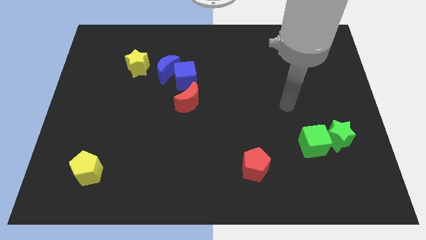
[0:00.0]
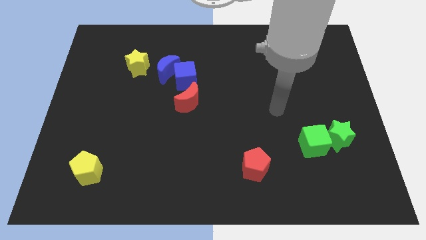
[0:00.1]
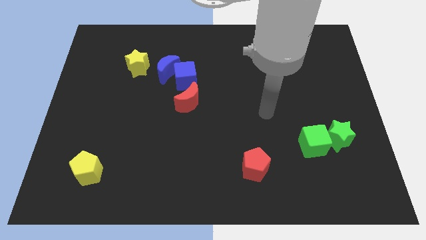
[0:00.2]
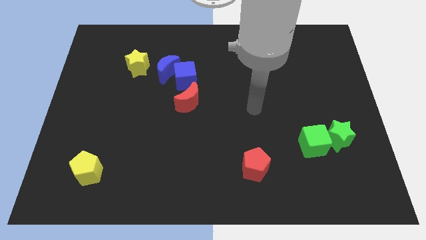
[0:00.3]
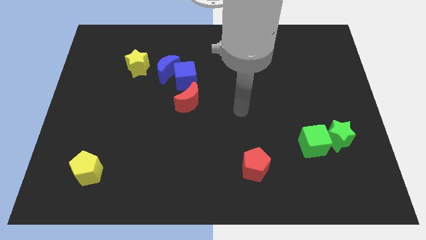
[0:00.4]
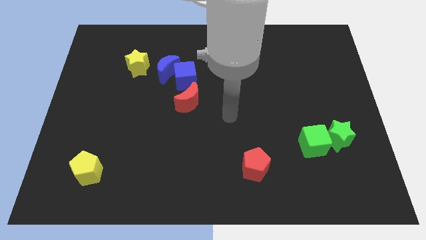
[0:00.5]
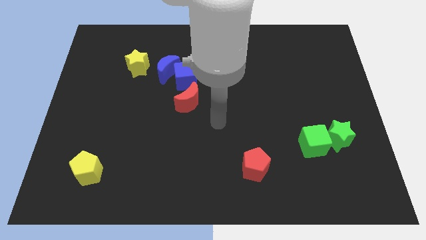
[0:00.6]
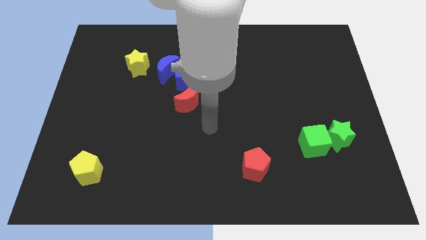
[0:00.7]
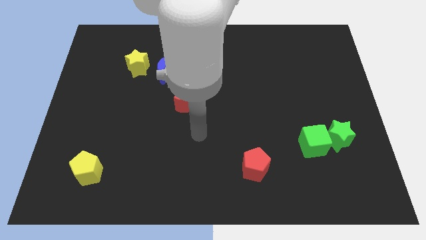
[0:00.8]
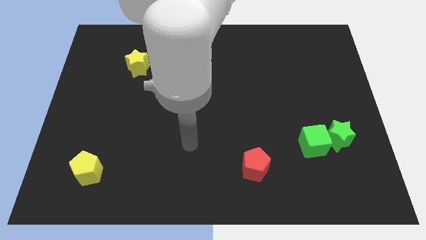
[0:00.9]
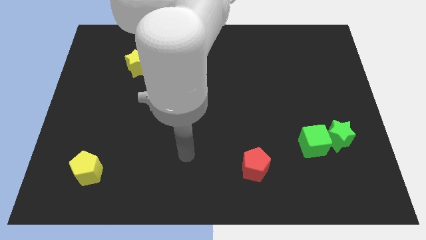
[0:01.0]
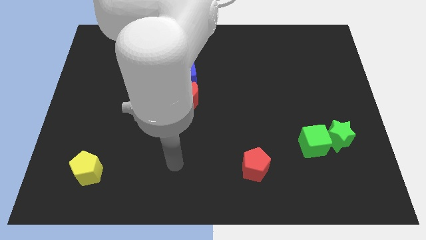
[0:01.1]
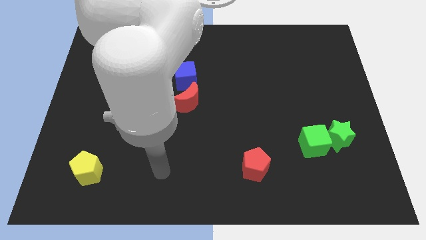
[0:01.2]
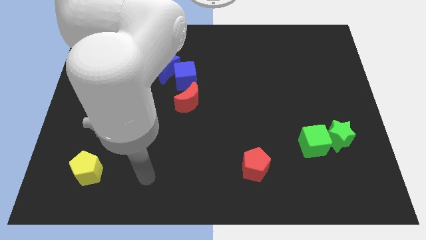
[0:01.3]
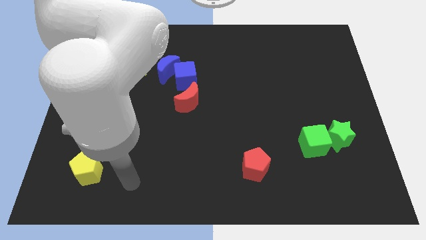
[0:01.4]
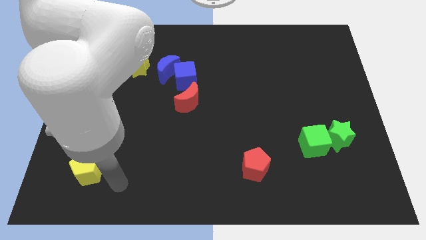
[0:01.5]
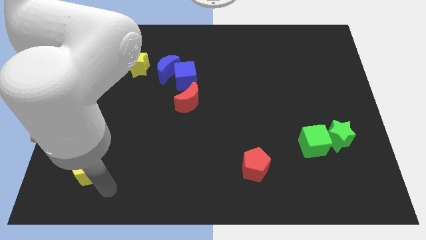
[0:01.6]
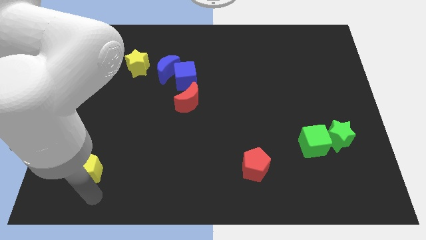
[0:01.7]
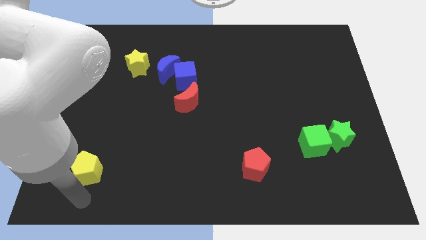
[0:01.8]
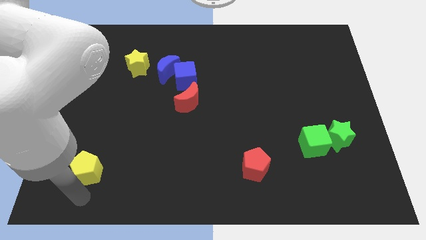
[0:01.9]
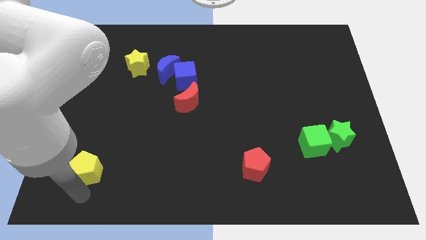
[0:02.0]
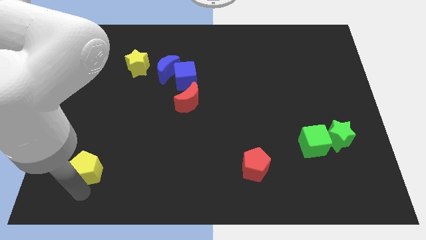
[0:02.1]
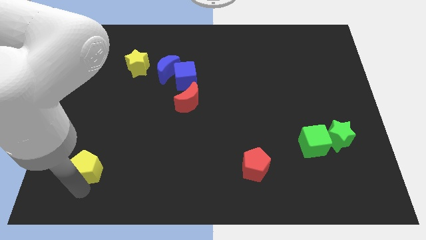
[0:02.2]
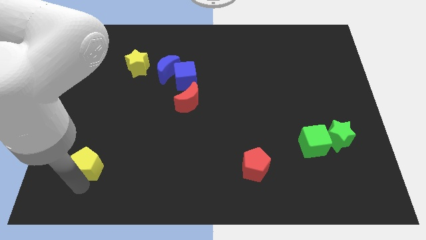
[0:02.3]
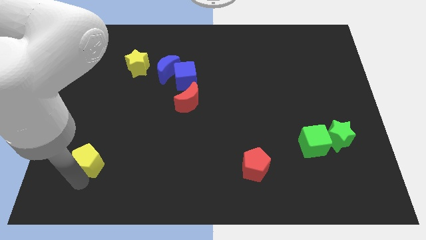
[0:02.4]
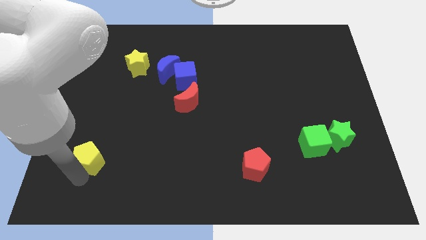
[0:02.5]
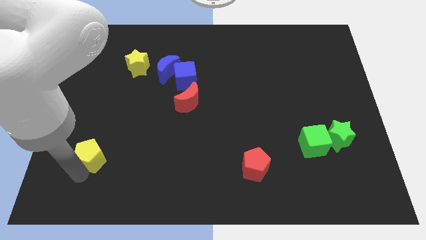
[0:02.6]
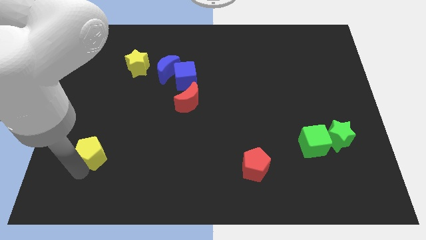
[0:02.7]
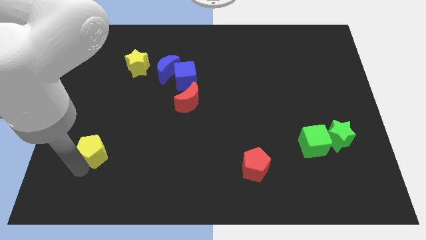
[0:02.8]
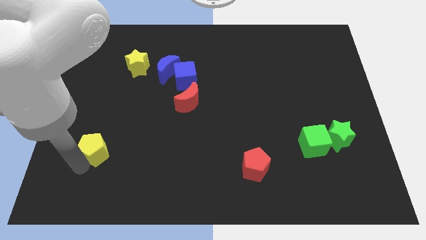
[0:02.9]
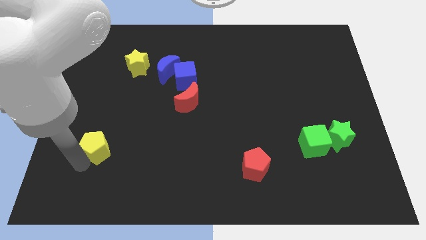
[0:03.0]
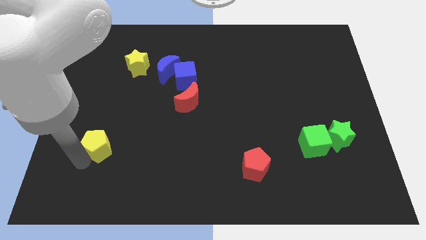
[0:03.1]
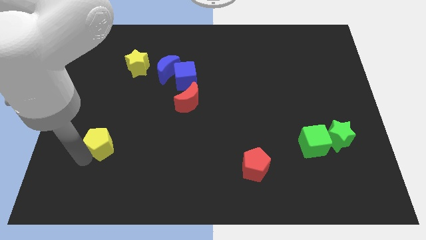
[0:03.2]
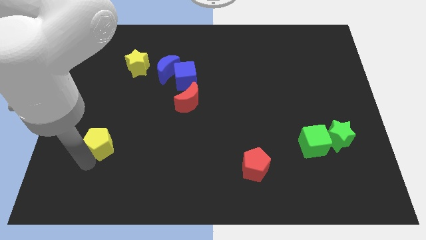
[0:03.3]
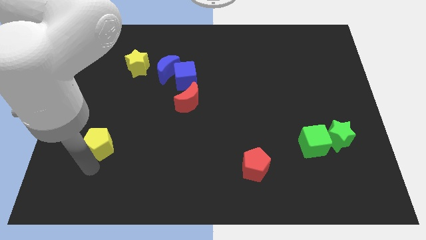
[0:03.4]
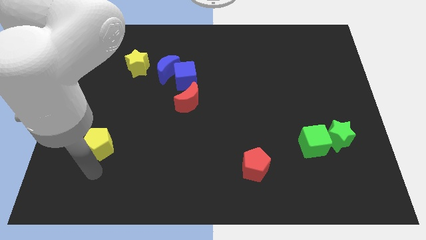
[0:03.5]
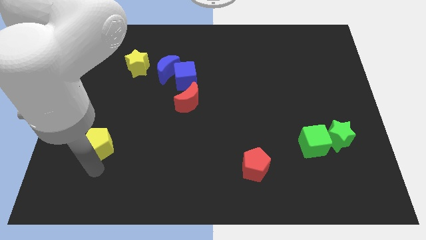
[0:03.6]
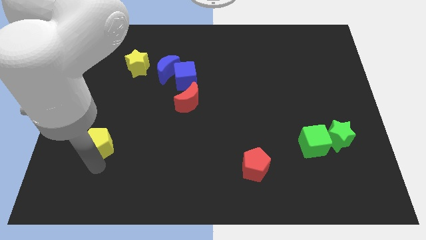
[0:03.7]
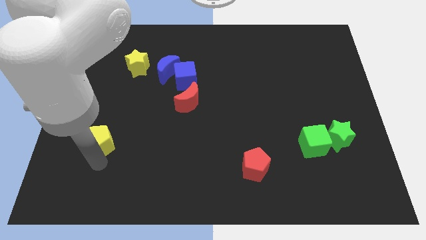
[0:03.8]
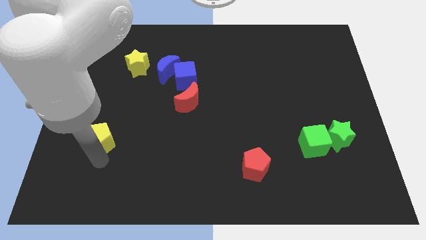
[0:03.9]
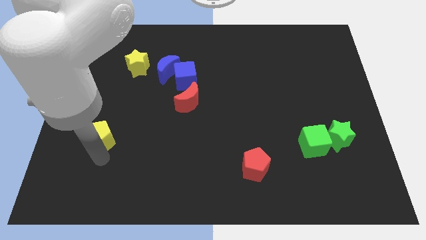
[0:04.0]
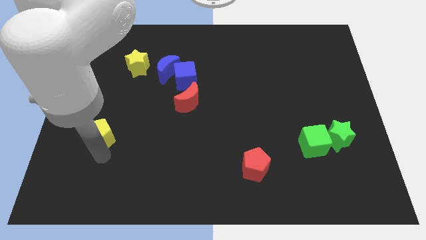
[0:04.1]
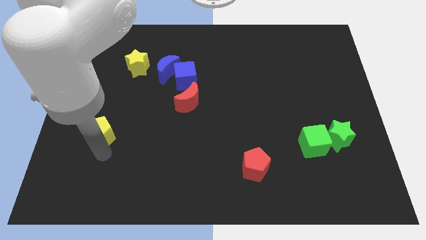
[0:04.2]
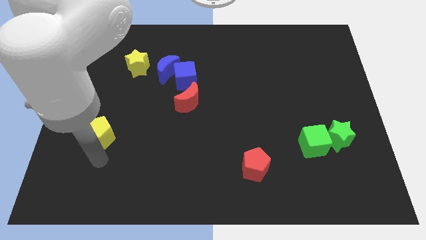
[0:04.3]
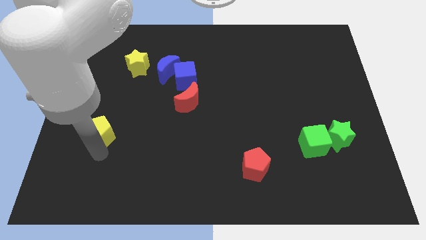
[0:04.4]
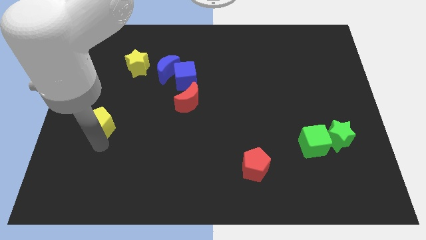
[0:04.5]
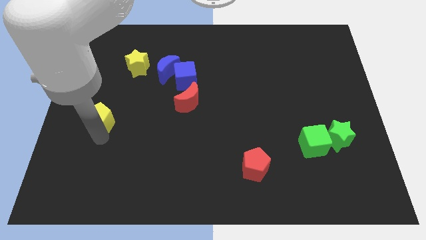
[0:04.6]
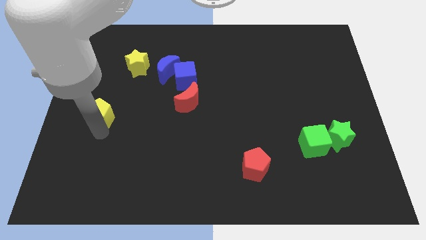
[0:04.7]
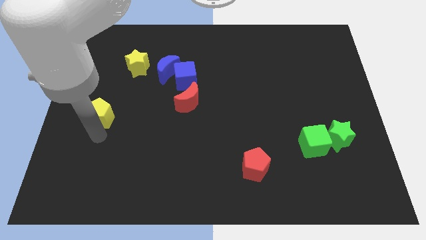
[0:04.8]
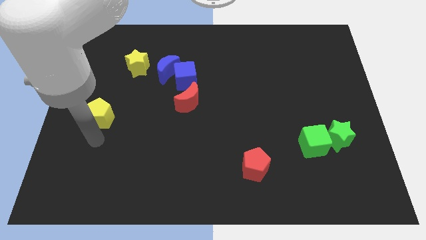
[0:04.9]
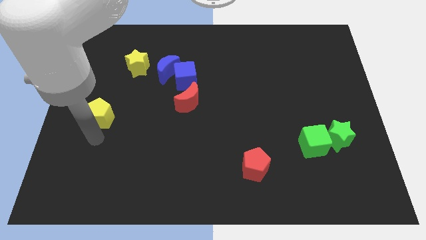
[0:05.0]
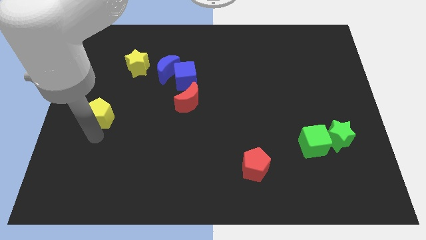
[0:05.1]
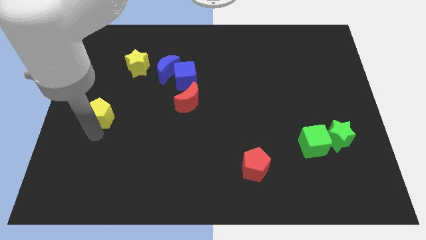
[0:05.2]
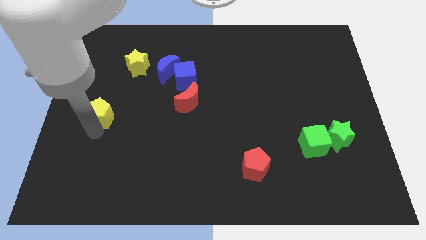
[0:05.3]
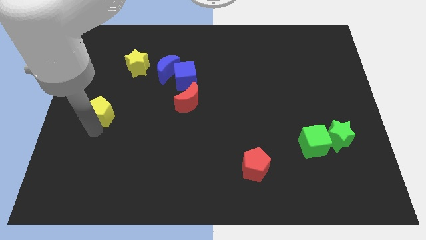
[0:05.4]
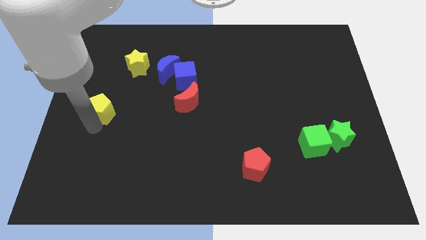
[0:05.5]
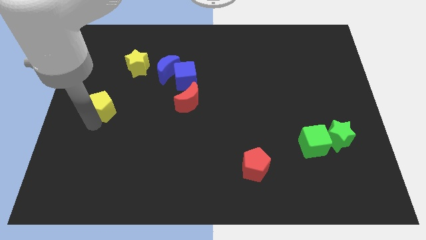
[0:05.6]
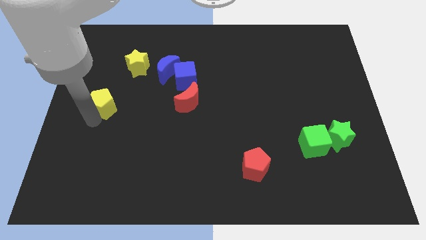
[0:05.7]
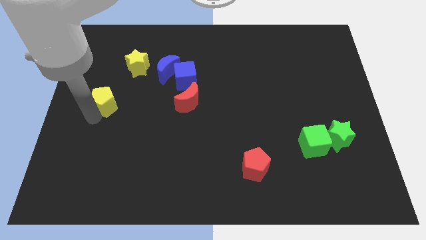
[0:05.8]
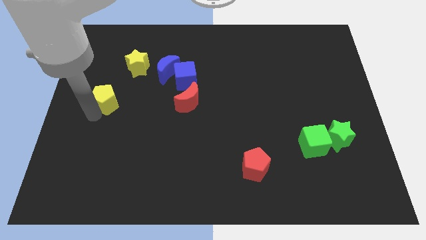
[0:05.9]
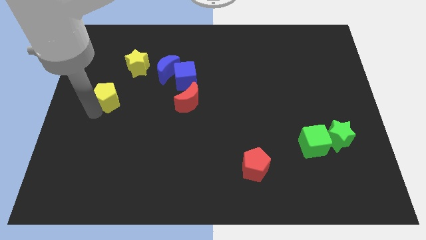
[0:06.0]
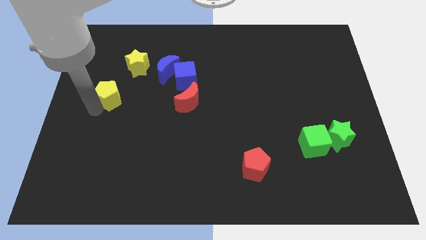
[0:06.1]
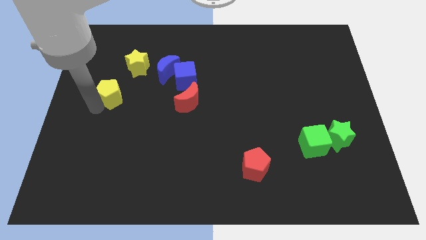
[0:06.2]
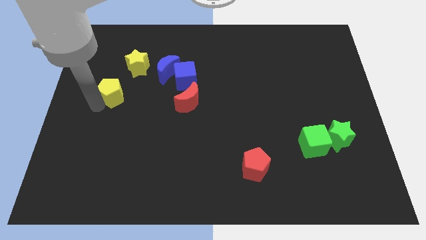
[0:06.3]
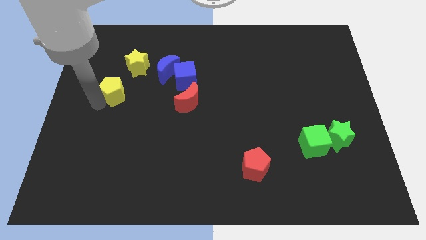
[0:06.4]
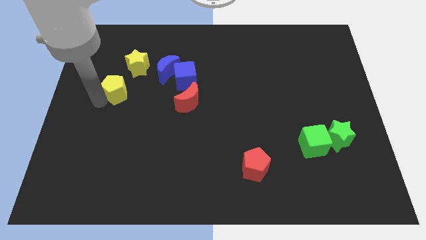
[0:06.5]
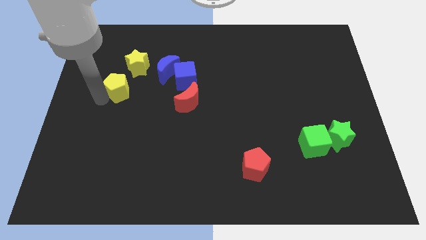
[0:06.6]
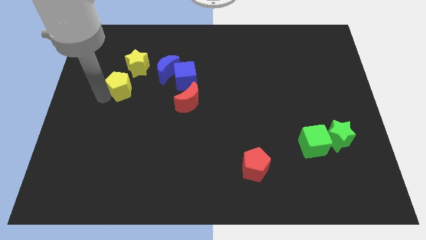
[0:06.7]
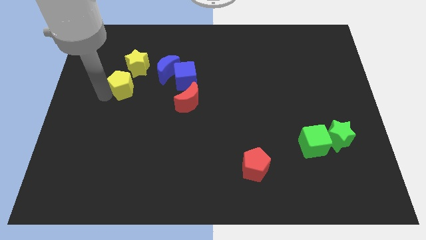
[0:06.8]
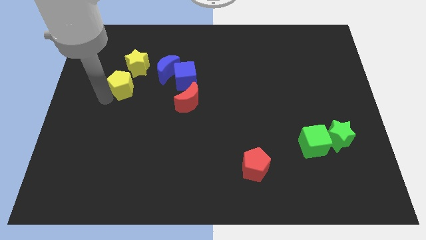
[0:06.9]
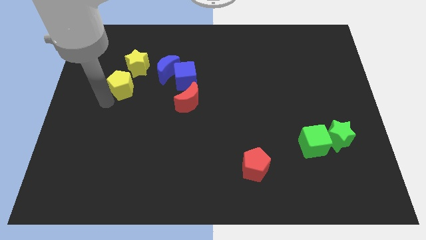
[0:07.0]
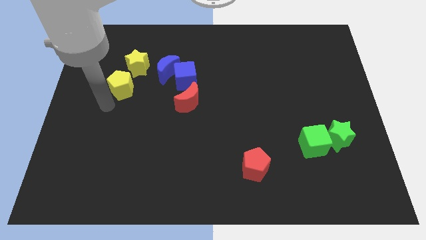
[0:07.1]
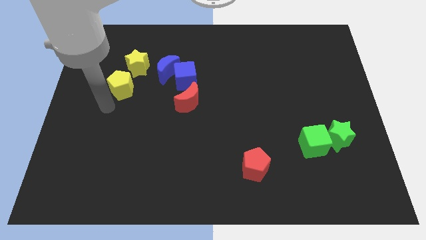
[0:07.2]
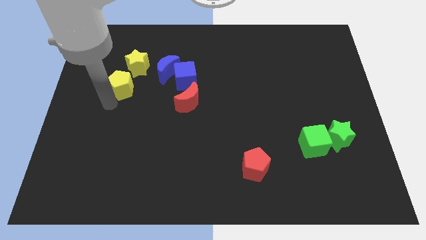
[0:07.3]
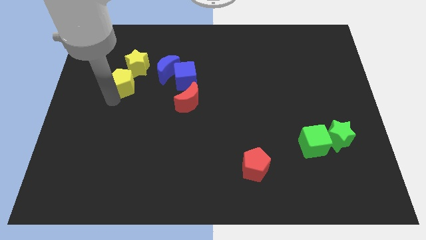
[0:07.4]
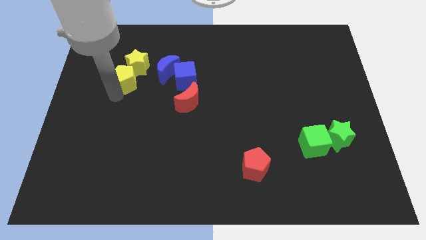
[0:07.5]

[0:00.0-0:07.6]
put the yellow pentagon close to the yellow star
